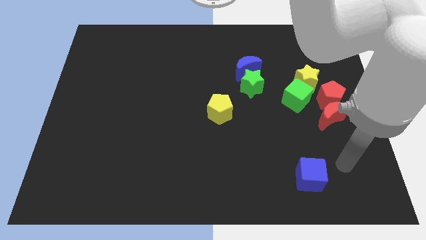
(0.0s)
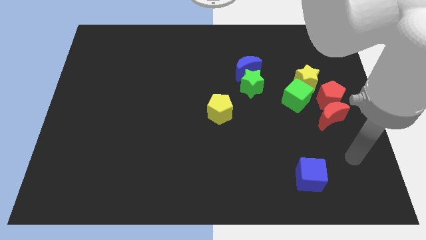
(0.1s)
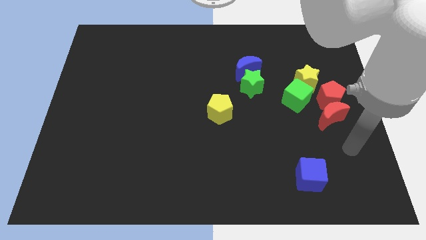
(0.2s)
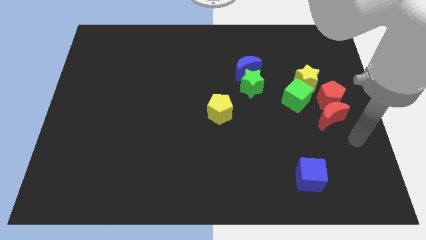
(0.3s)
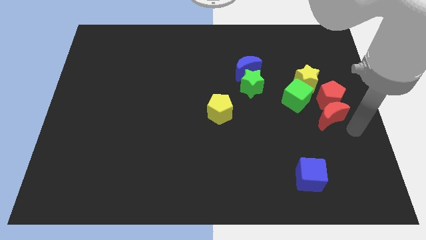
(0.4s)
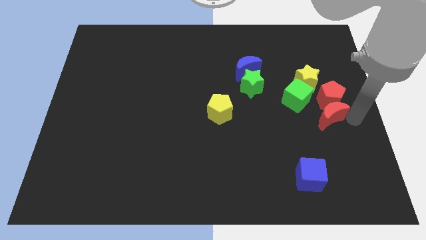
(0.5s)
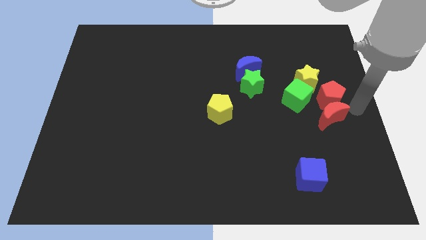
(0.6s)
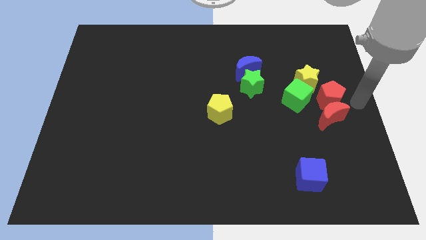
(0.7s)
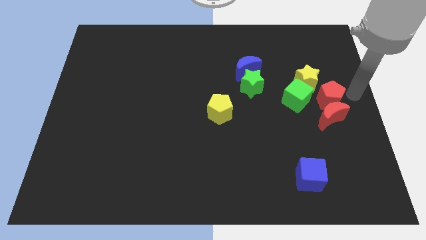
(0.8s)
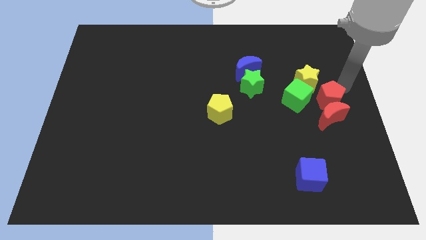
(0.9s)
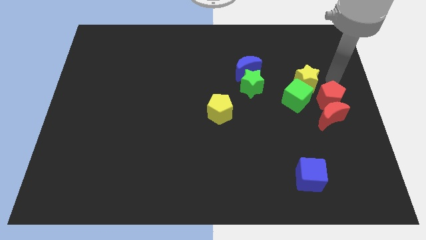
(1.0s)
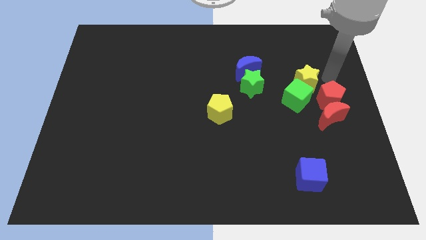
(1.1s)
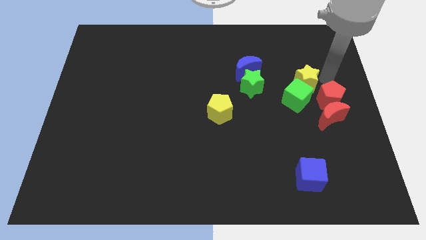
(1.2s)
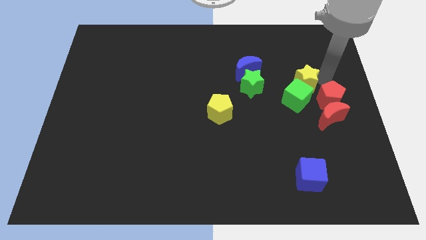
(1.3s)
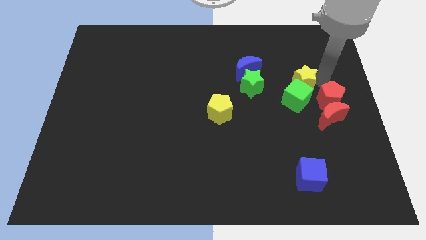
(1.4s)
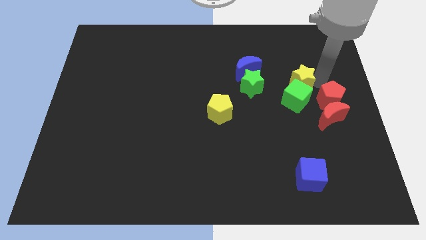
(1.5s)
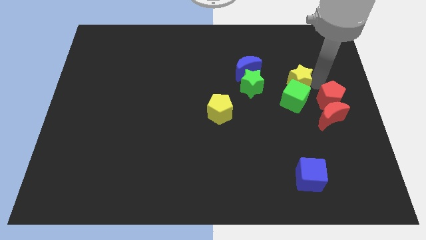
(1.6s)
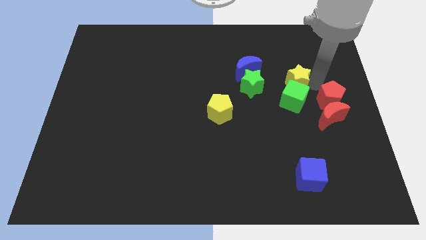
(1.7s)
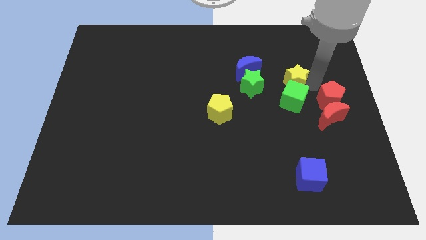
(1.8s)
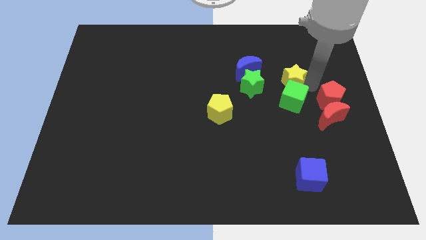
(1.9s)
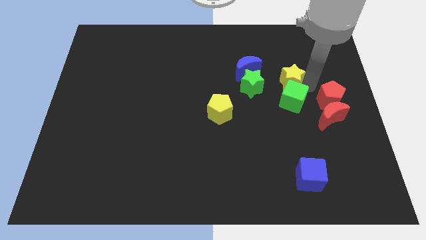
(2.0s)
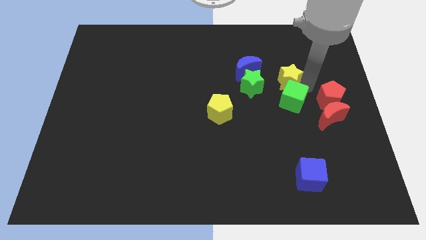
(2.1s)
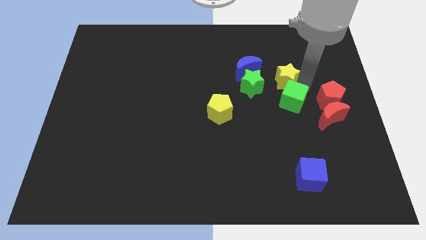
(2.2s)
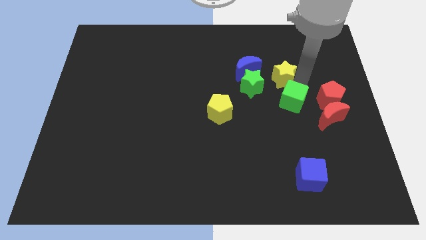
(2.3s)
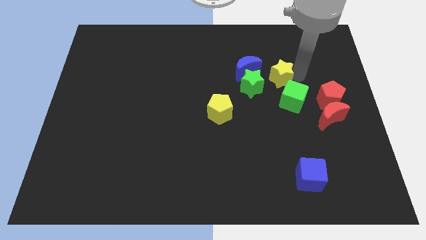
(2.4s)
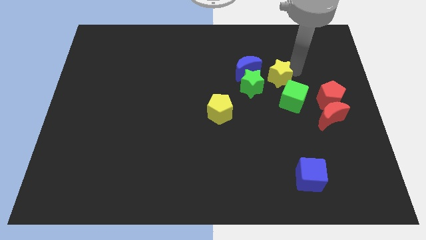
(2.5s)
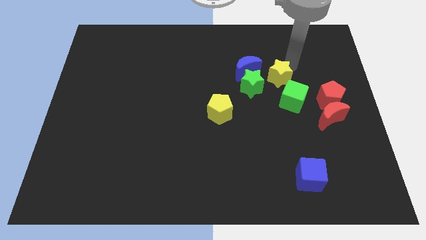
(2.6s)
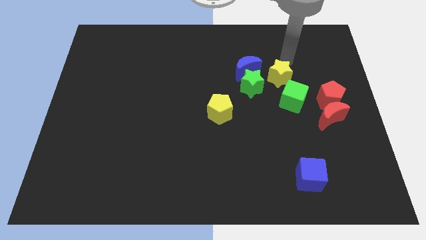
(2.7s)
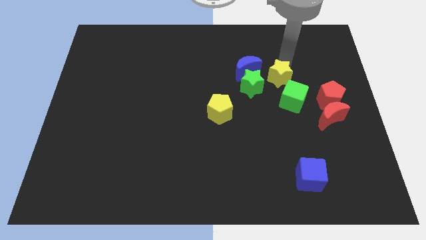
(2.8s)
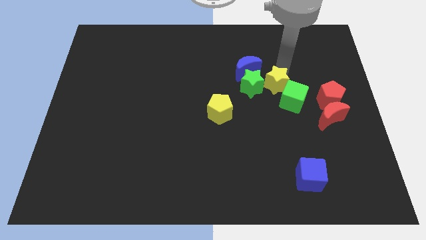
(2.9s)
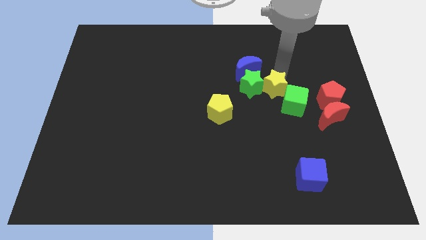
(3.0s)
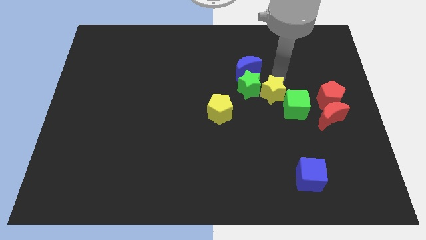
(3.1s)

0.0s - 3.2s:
slightly push the yellow star down and to the left

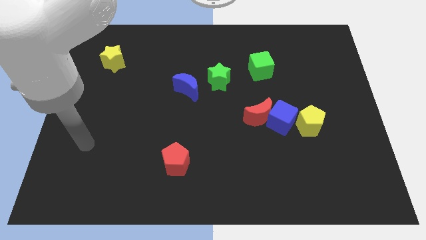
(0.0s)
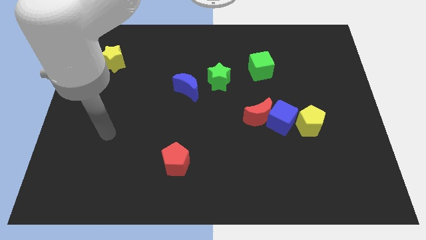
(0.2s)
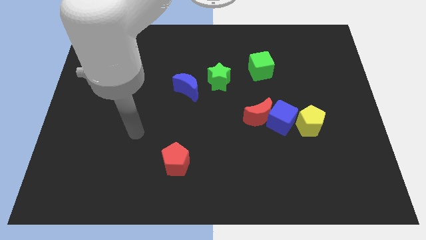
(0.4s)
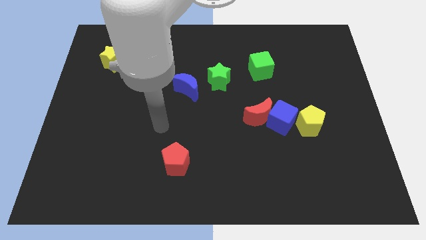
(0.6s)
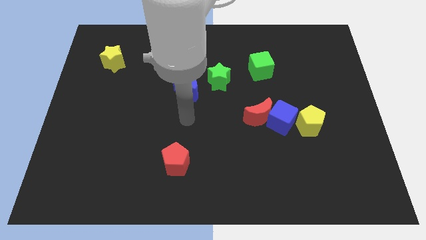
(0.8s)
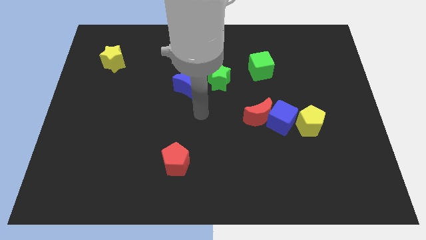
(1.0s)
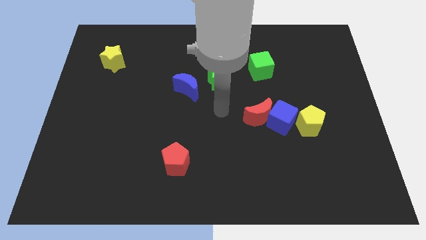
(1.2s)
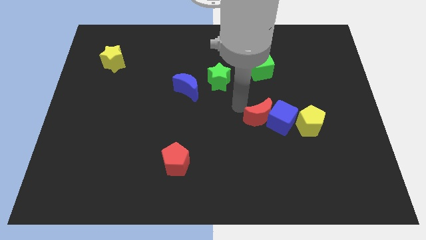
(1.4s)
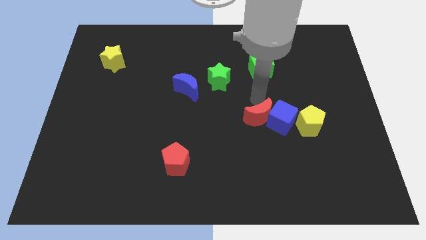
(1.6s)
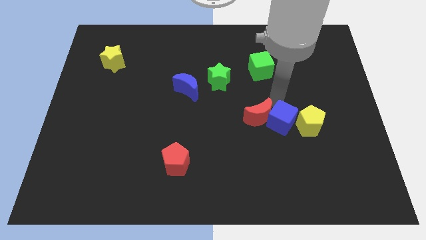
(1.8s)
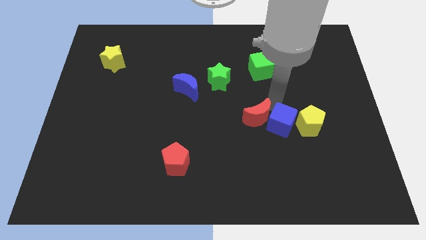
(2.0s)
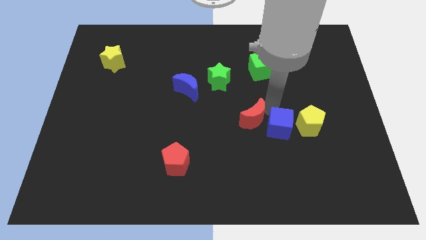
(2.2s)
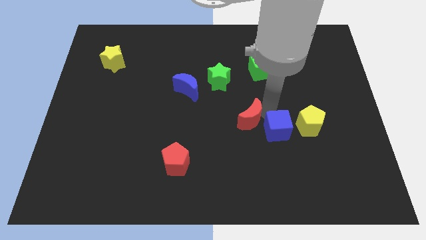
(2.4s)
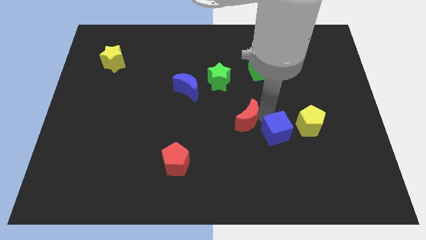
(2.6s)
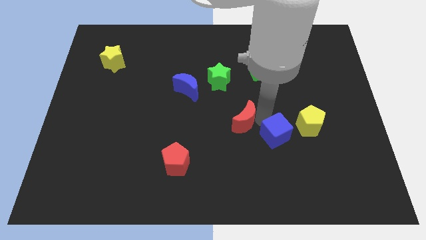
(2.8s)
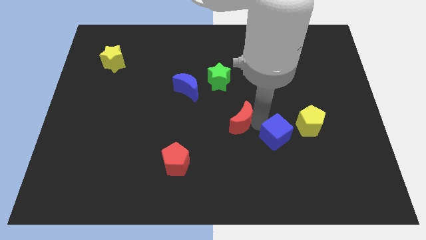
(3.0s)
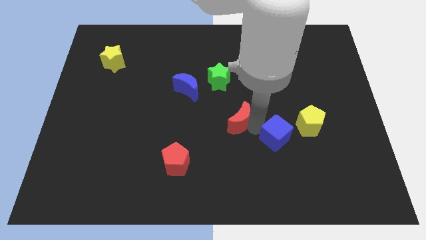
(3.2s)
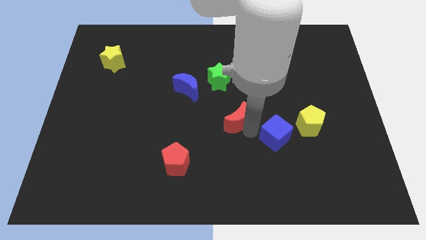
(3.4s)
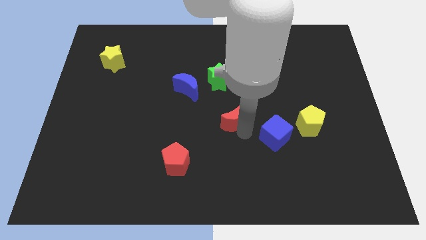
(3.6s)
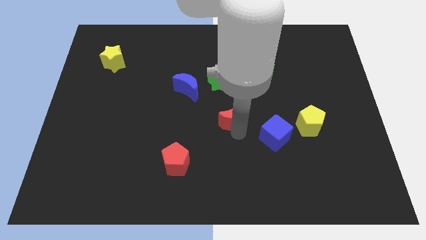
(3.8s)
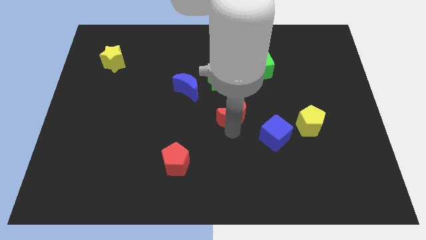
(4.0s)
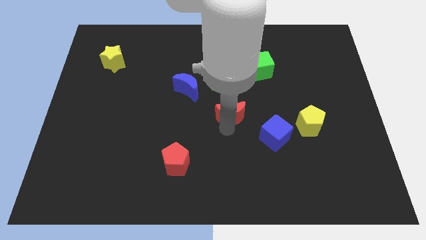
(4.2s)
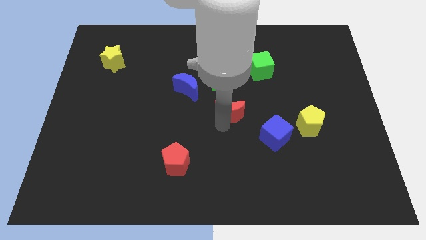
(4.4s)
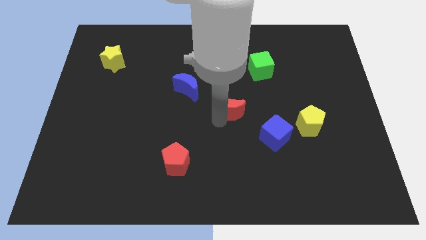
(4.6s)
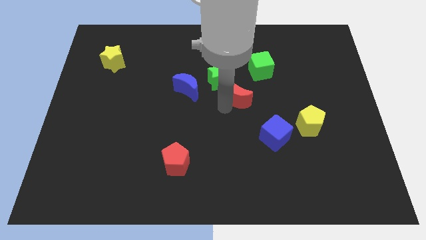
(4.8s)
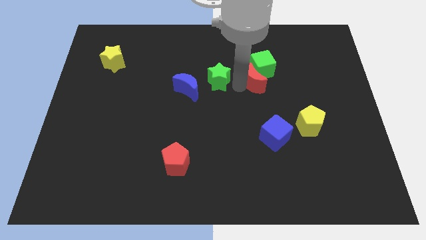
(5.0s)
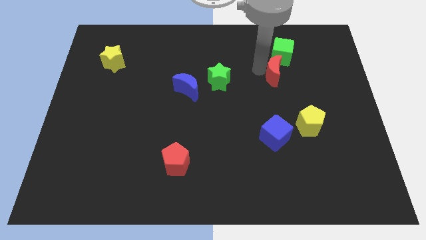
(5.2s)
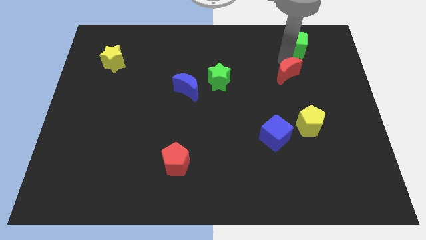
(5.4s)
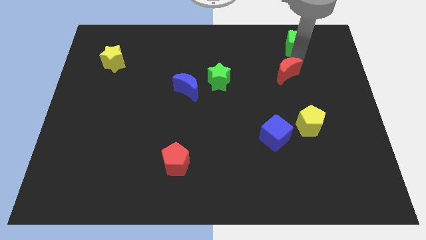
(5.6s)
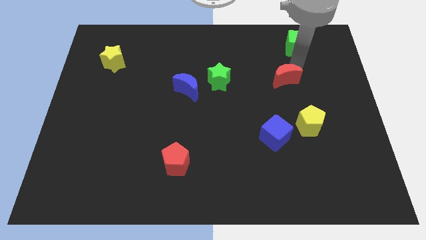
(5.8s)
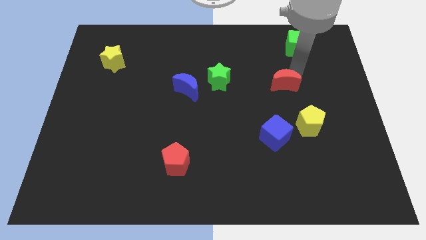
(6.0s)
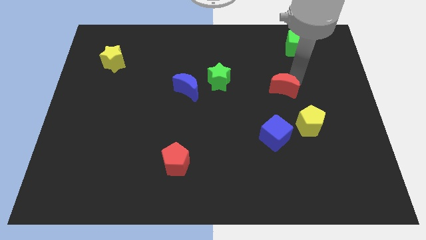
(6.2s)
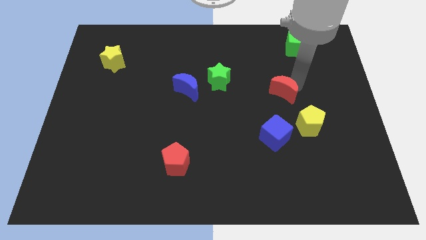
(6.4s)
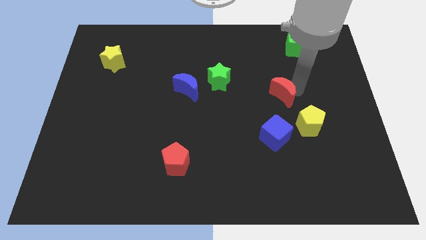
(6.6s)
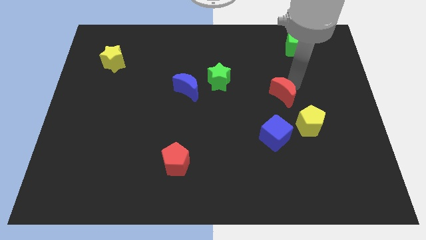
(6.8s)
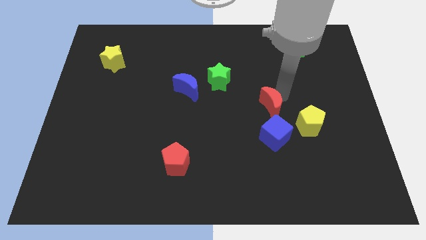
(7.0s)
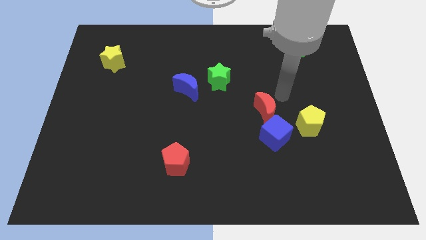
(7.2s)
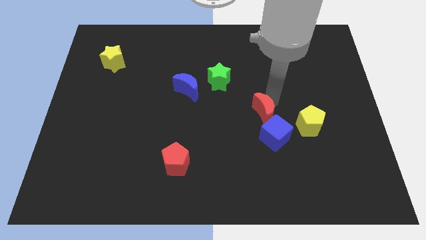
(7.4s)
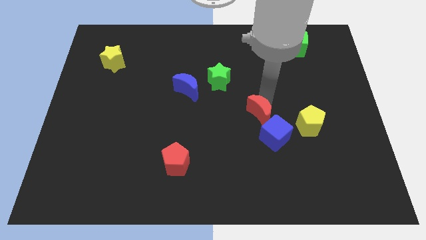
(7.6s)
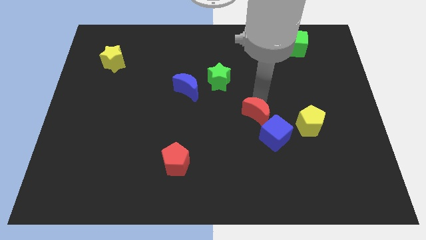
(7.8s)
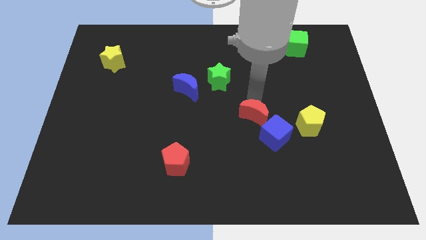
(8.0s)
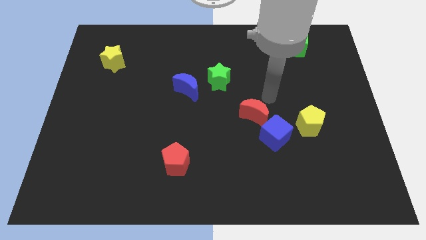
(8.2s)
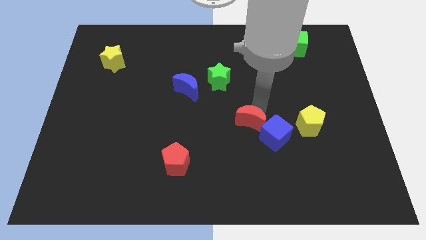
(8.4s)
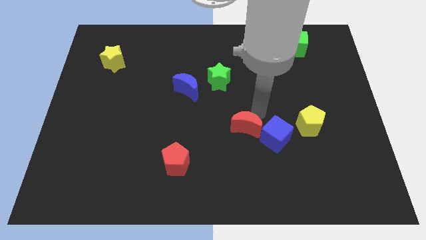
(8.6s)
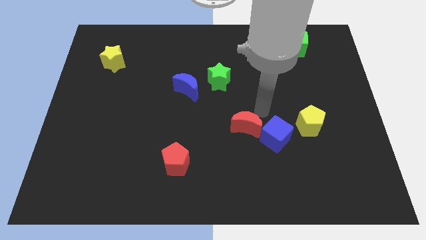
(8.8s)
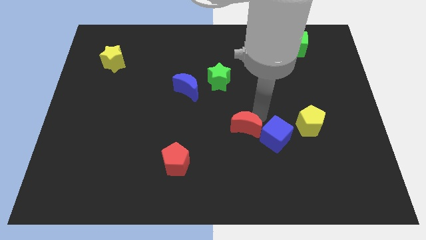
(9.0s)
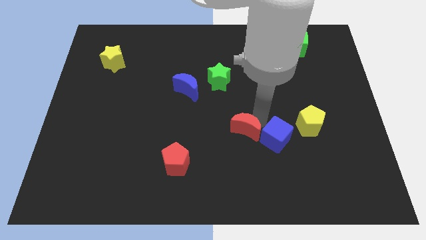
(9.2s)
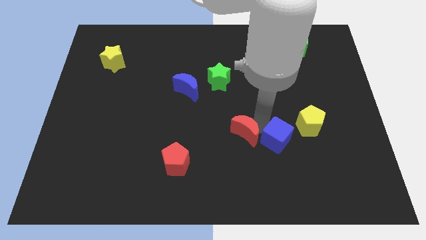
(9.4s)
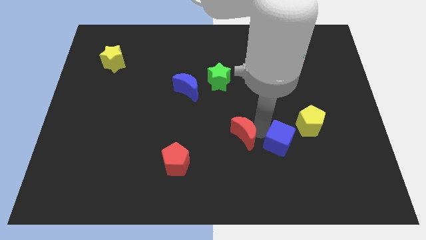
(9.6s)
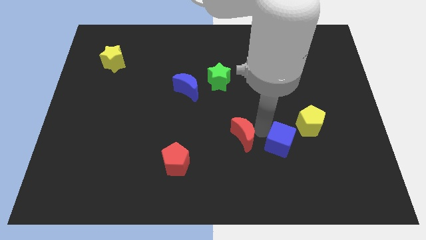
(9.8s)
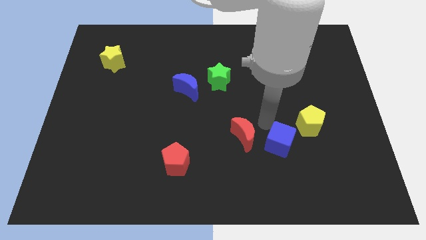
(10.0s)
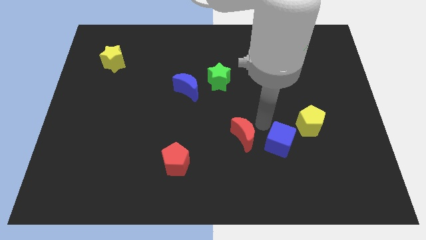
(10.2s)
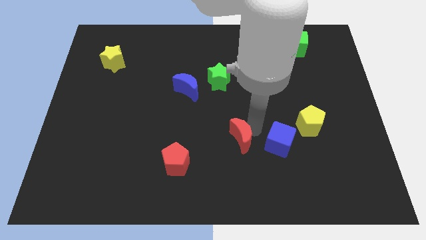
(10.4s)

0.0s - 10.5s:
slightly push the red moon down and then left
